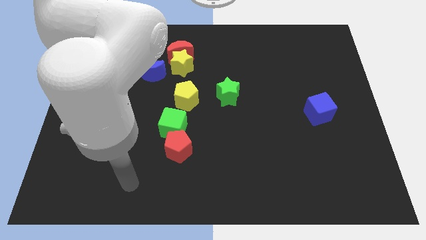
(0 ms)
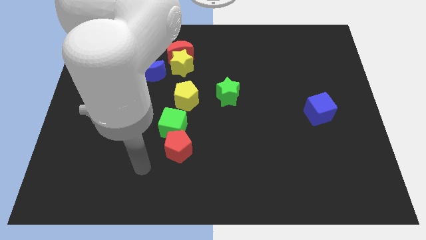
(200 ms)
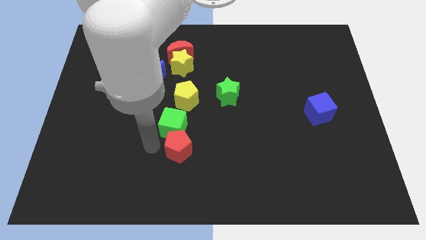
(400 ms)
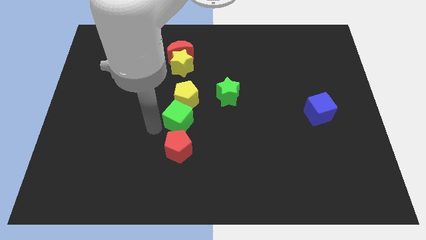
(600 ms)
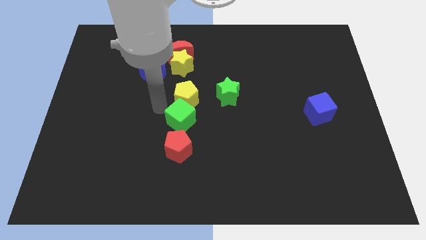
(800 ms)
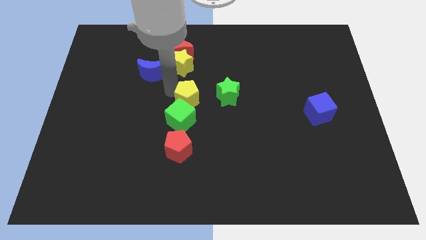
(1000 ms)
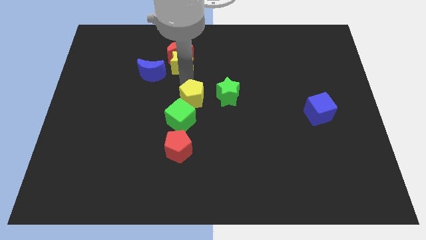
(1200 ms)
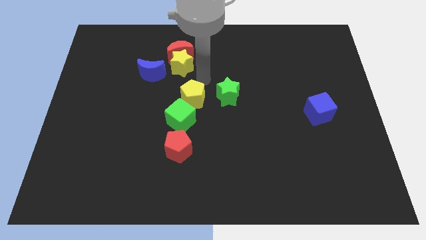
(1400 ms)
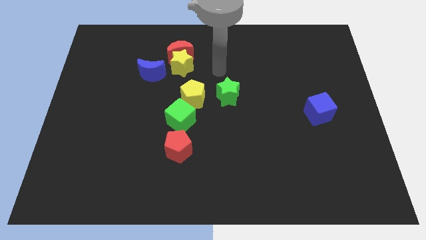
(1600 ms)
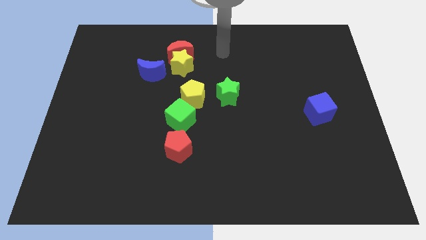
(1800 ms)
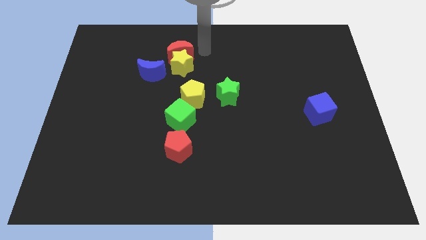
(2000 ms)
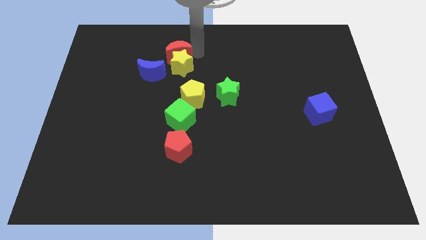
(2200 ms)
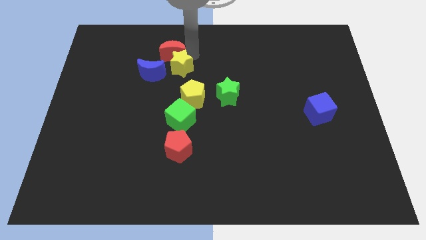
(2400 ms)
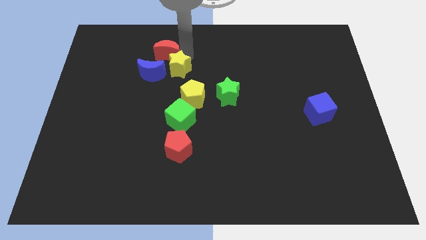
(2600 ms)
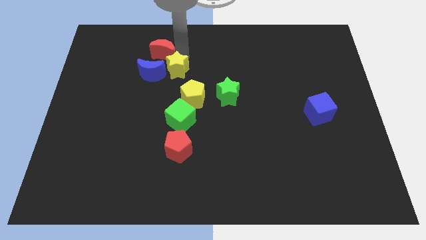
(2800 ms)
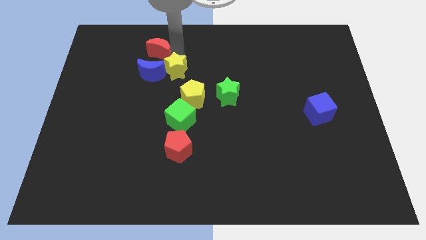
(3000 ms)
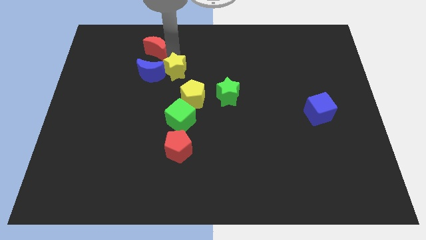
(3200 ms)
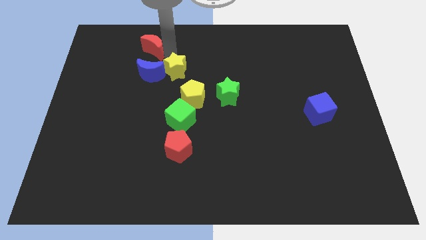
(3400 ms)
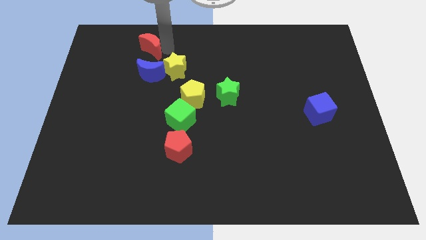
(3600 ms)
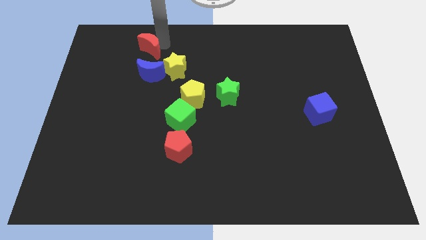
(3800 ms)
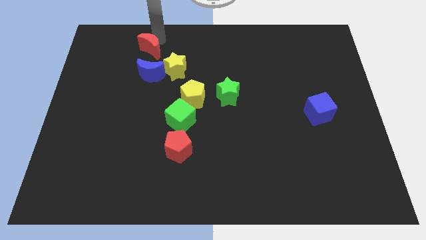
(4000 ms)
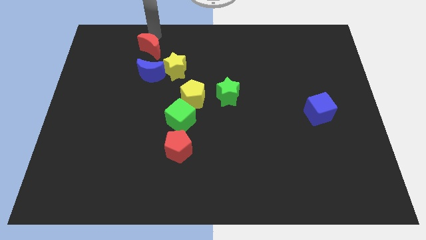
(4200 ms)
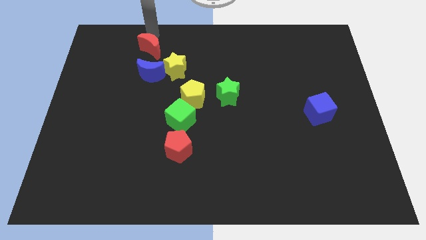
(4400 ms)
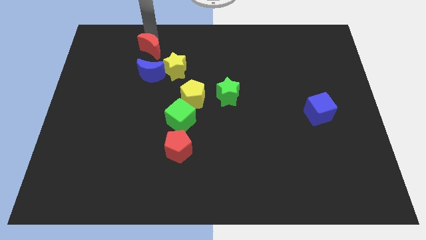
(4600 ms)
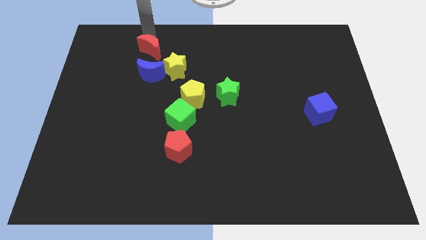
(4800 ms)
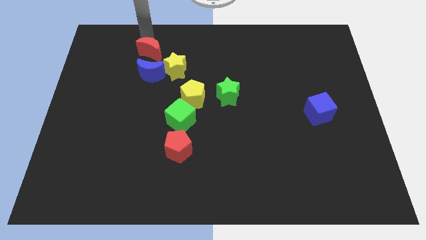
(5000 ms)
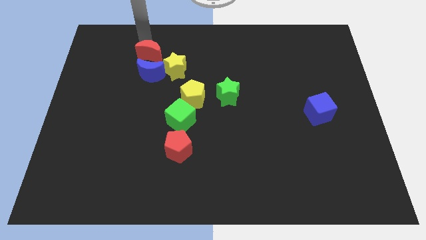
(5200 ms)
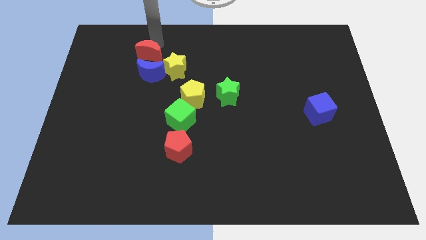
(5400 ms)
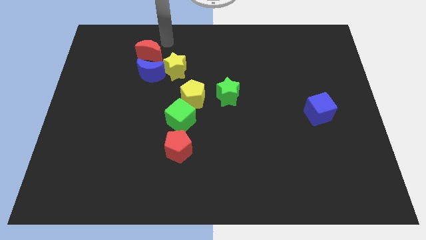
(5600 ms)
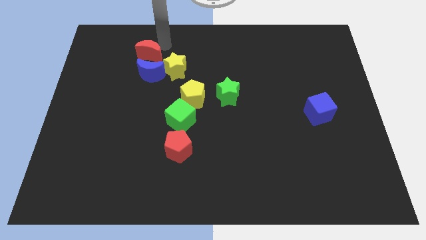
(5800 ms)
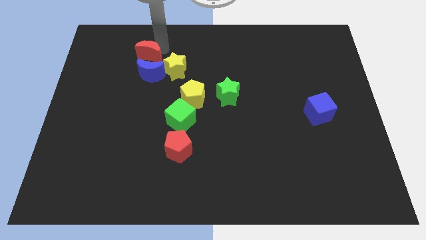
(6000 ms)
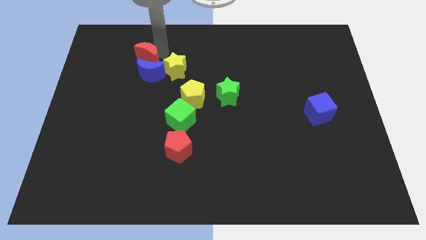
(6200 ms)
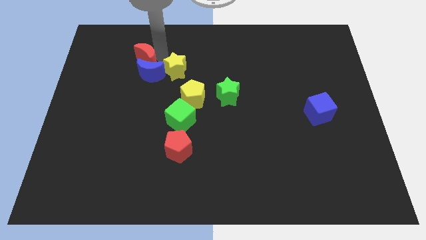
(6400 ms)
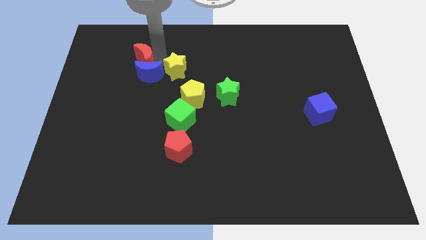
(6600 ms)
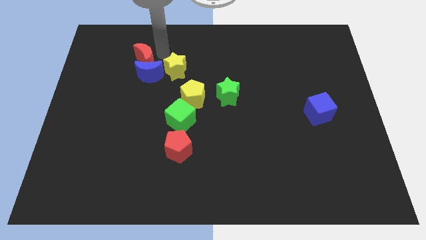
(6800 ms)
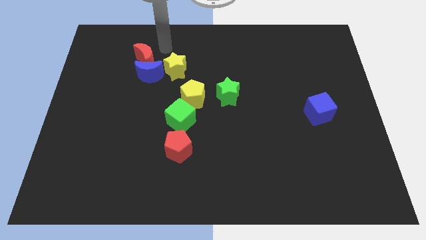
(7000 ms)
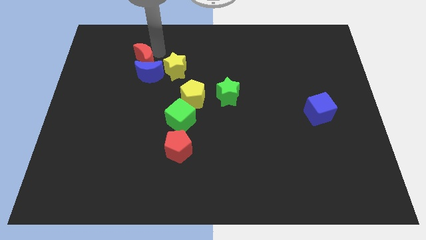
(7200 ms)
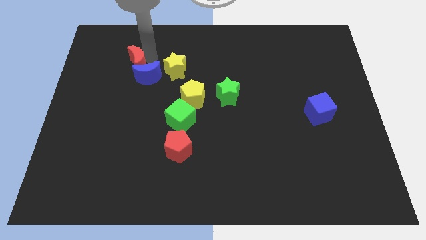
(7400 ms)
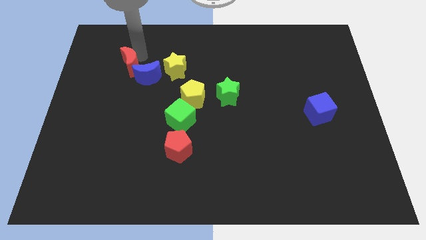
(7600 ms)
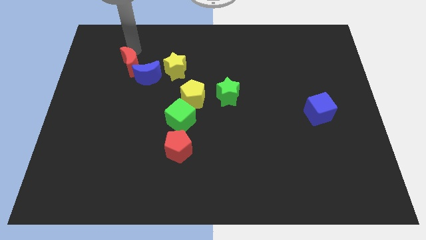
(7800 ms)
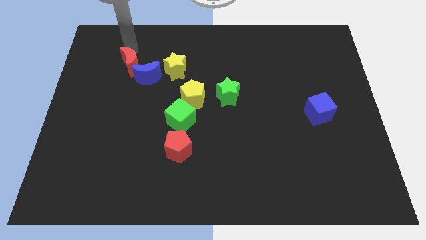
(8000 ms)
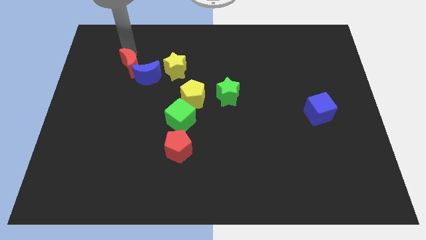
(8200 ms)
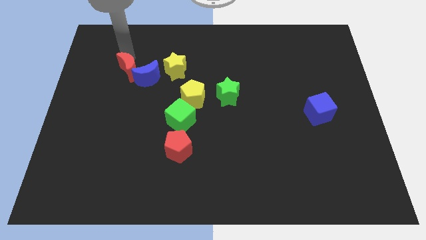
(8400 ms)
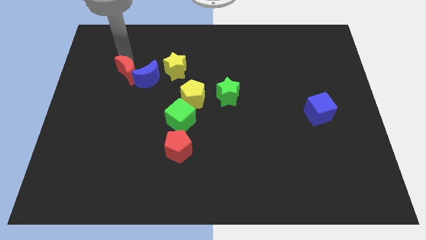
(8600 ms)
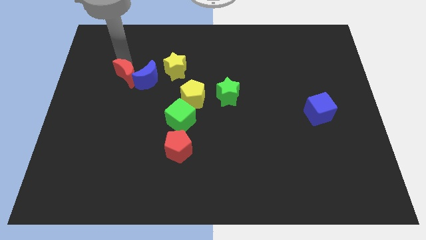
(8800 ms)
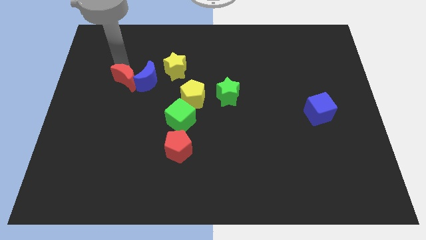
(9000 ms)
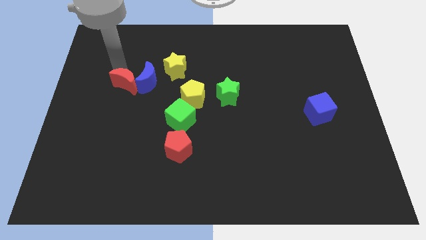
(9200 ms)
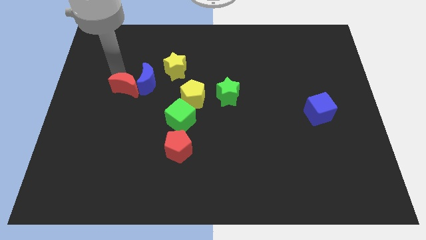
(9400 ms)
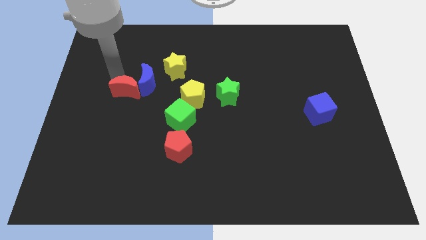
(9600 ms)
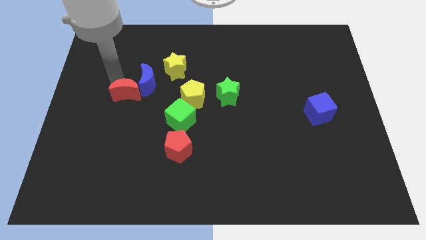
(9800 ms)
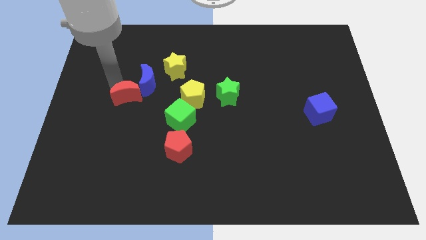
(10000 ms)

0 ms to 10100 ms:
slide the red moon to the bottom of the blue moon

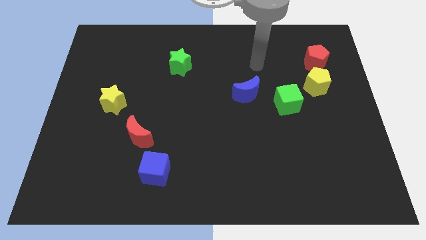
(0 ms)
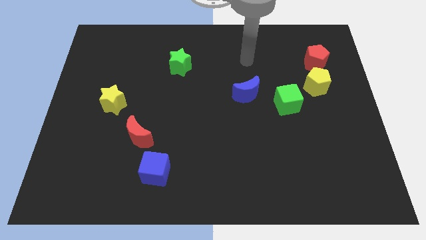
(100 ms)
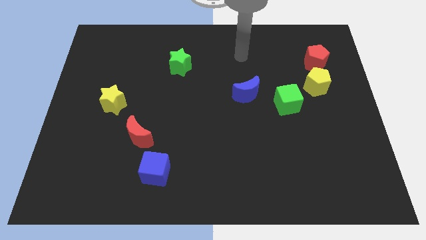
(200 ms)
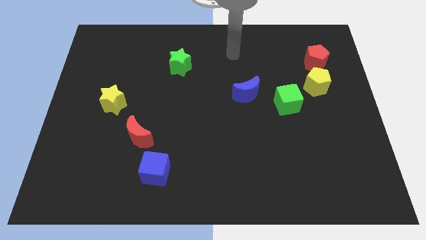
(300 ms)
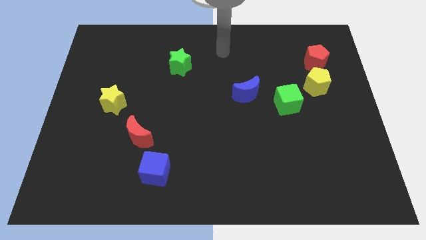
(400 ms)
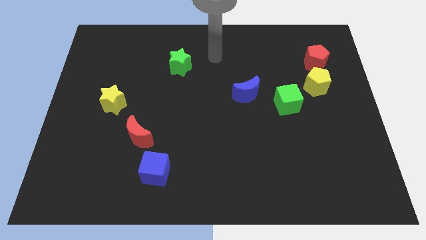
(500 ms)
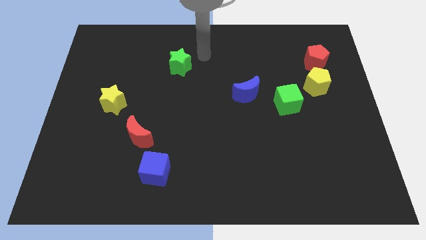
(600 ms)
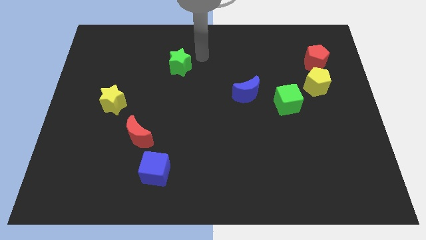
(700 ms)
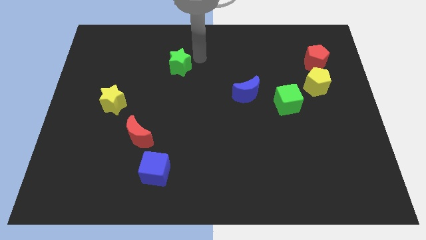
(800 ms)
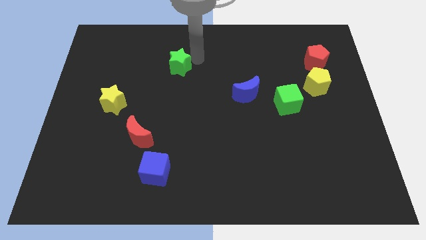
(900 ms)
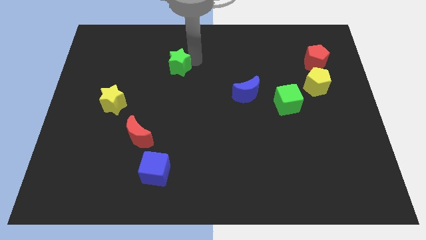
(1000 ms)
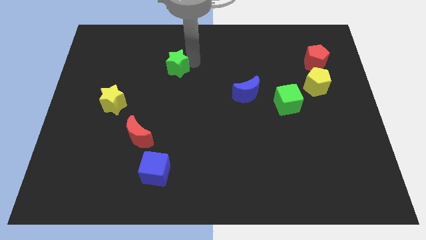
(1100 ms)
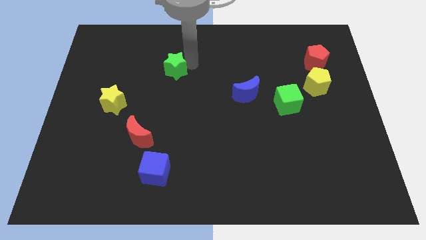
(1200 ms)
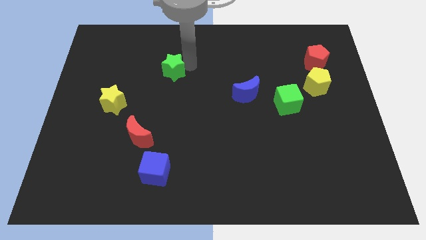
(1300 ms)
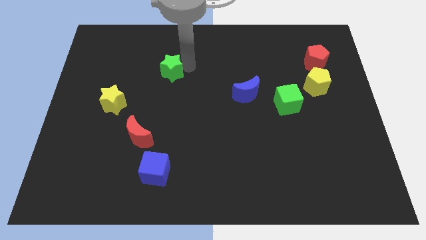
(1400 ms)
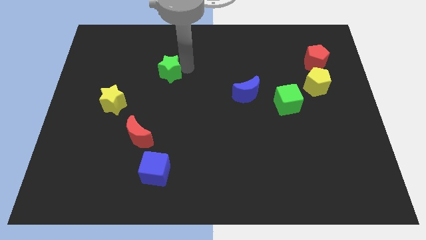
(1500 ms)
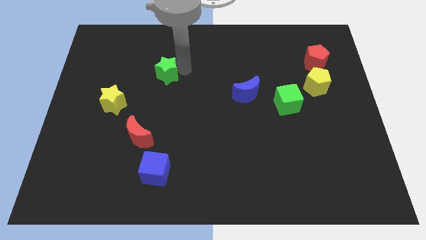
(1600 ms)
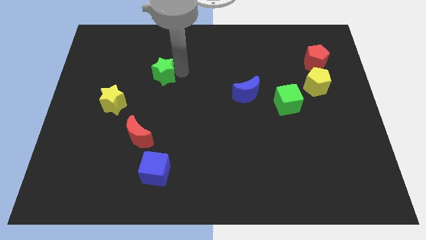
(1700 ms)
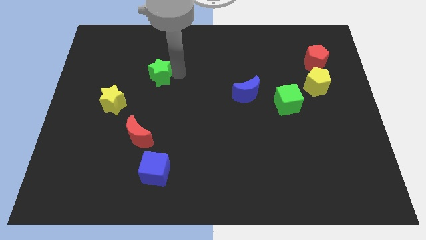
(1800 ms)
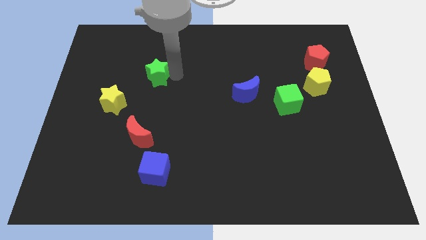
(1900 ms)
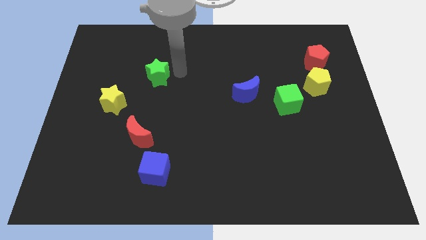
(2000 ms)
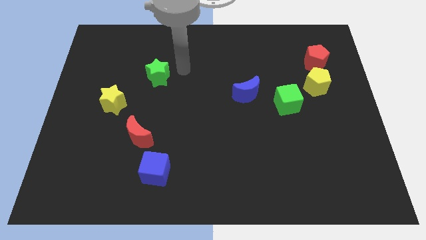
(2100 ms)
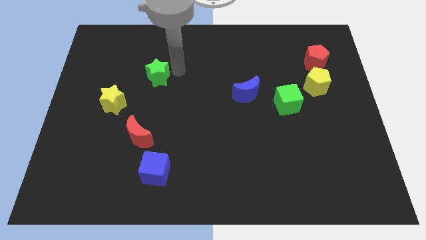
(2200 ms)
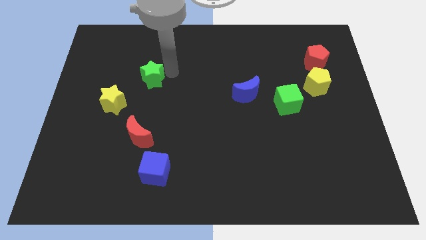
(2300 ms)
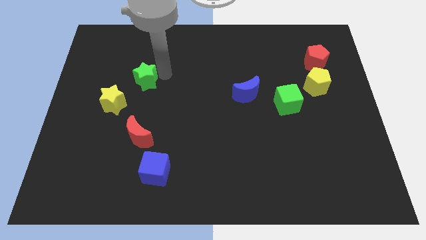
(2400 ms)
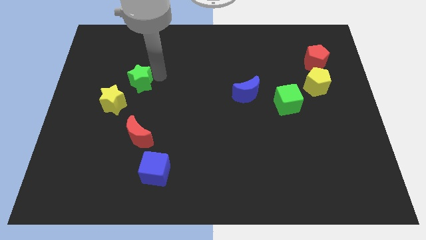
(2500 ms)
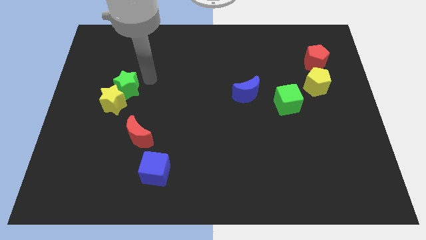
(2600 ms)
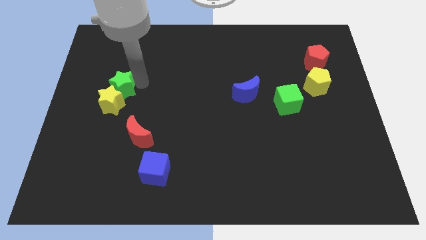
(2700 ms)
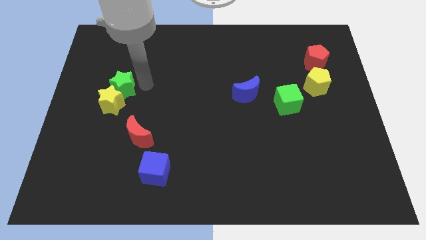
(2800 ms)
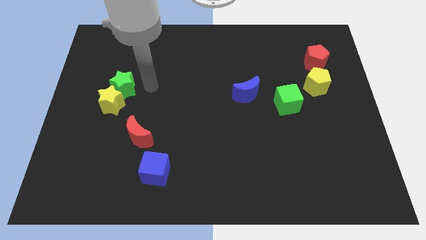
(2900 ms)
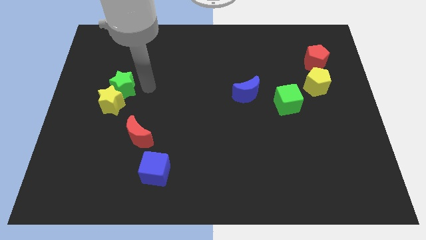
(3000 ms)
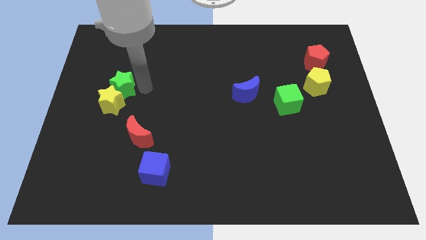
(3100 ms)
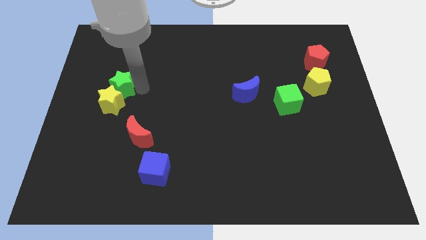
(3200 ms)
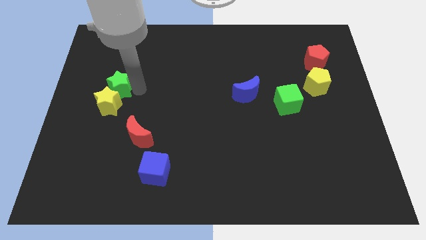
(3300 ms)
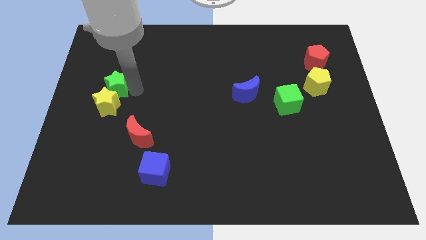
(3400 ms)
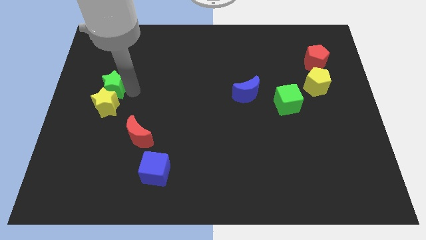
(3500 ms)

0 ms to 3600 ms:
slide the green star diagonally up and to the left of the yellow star
